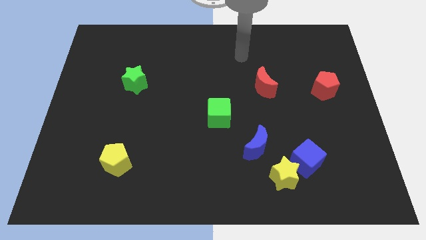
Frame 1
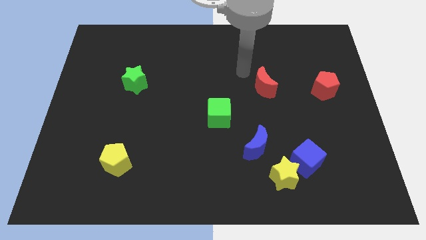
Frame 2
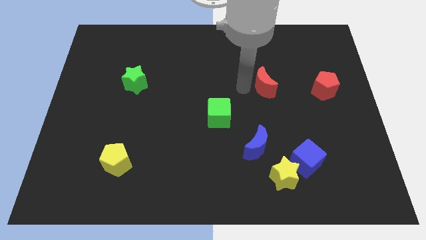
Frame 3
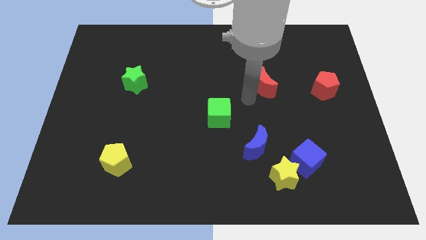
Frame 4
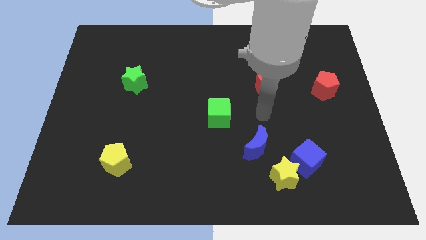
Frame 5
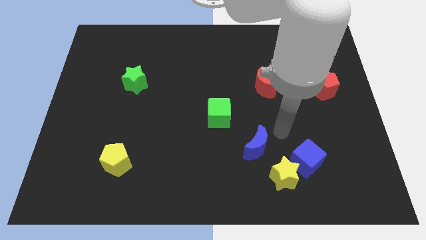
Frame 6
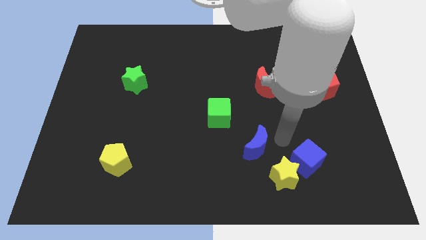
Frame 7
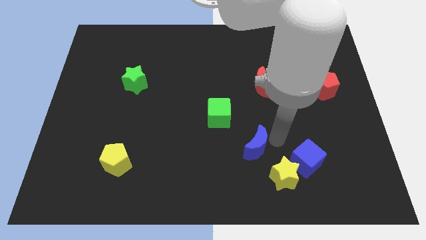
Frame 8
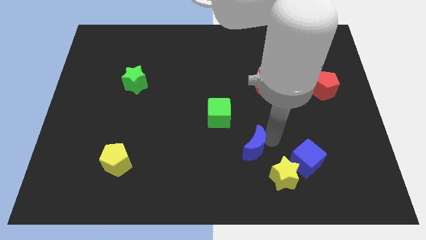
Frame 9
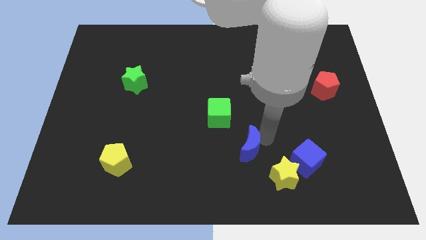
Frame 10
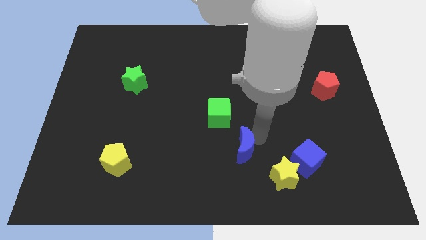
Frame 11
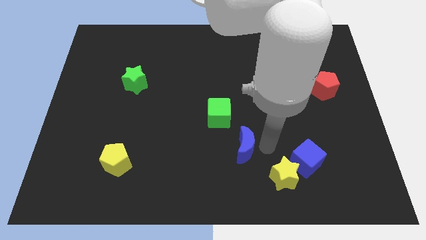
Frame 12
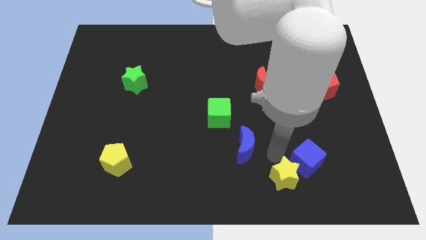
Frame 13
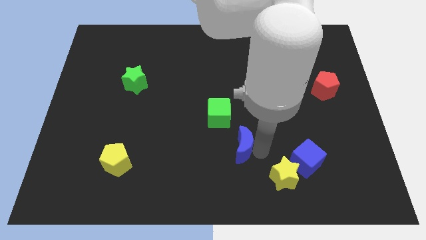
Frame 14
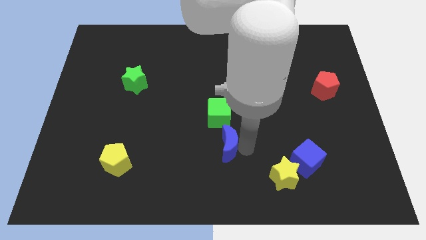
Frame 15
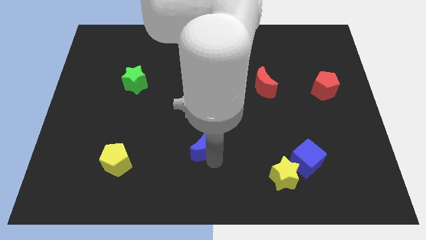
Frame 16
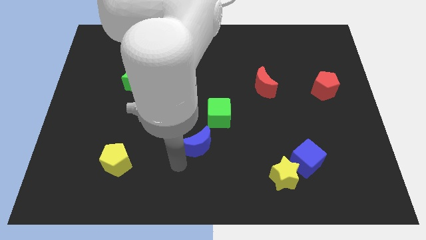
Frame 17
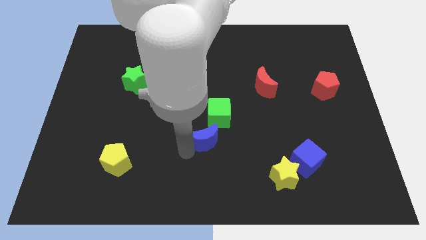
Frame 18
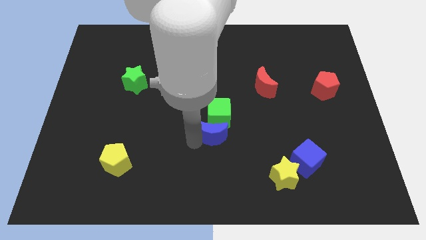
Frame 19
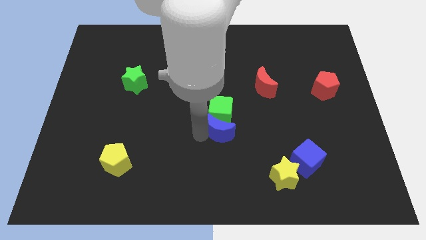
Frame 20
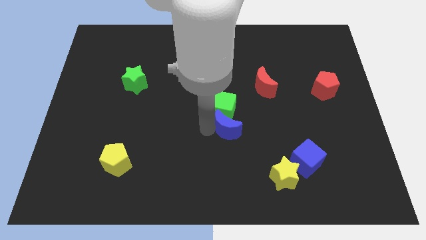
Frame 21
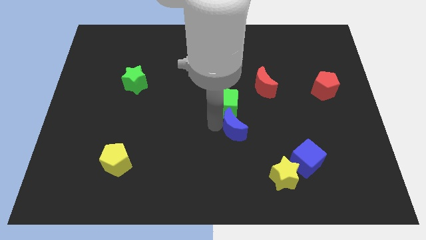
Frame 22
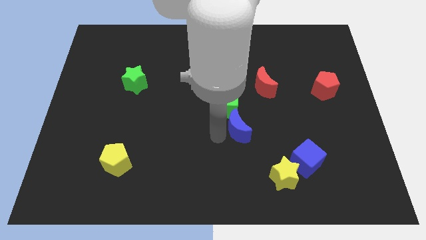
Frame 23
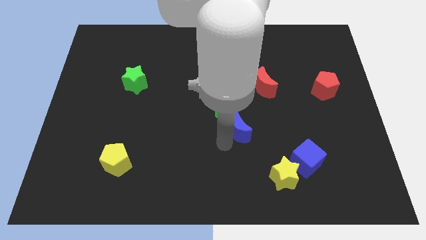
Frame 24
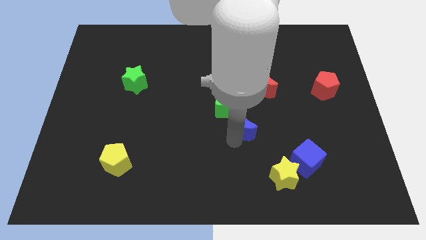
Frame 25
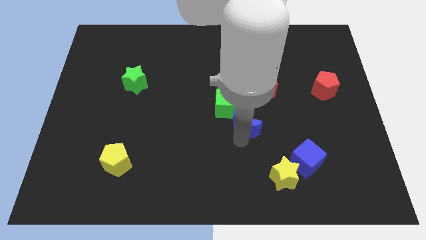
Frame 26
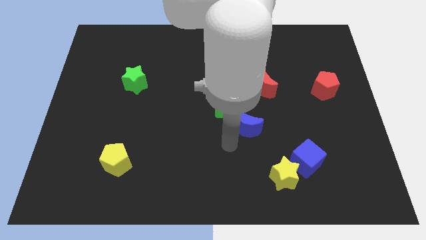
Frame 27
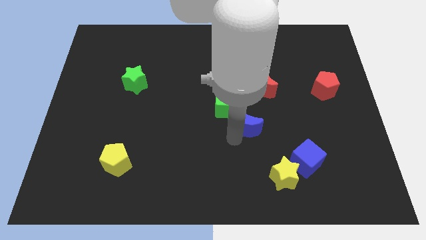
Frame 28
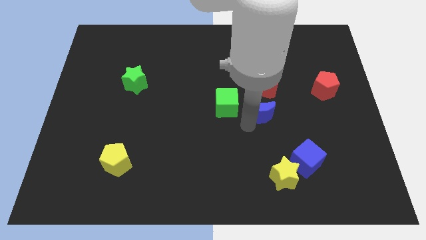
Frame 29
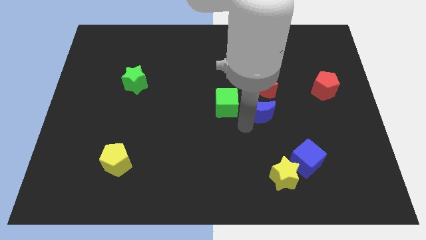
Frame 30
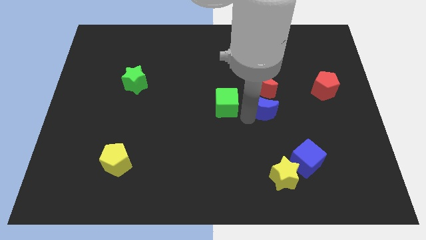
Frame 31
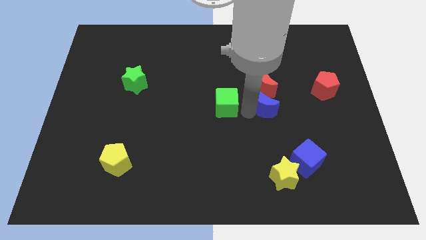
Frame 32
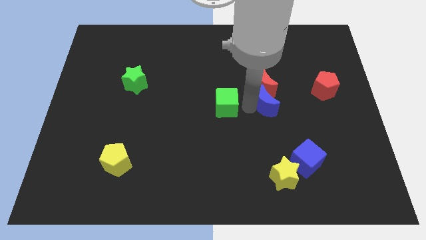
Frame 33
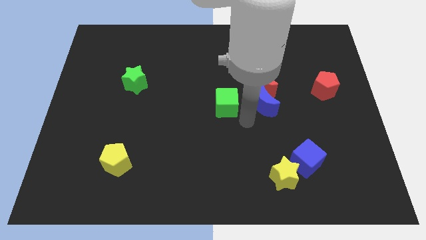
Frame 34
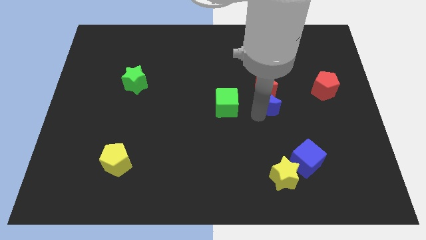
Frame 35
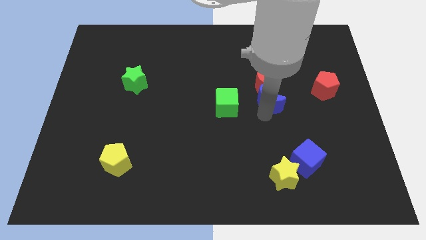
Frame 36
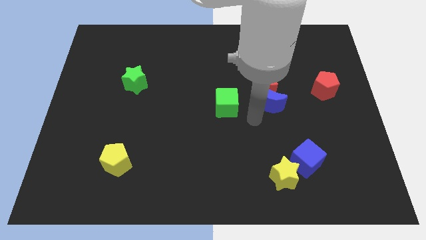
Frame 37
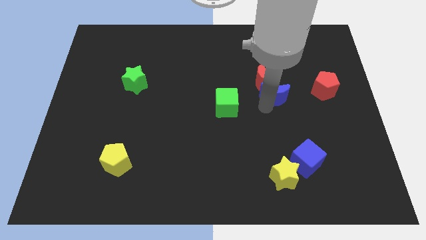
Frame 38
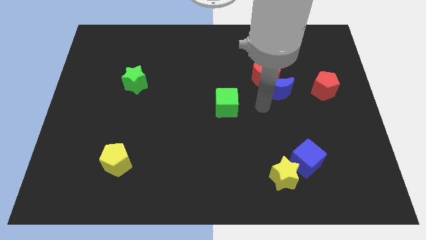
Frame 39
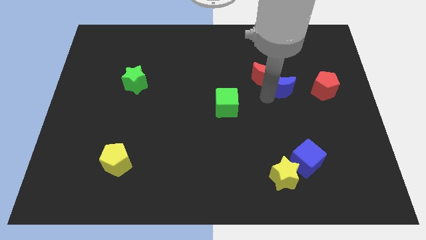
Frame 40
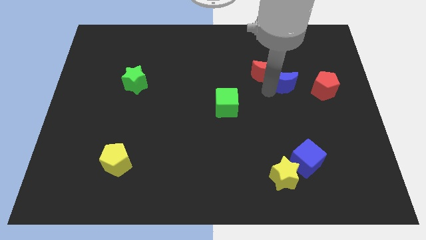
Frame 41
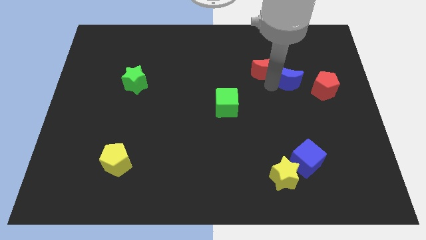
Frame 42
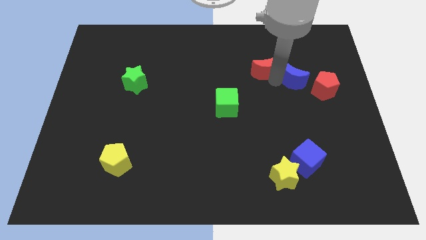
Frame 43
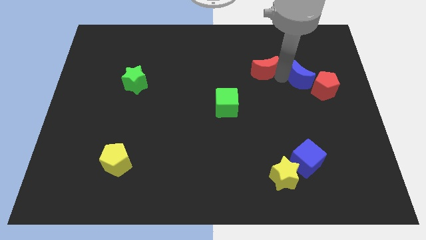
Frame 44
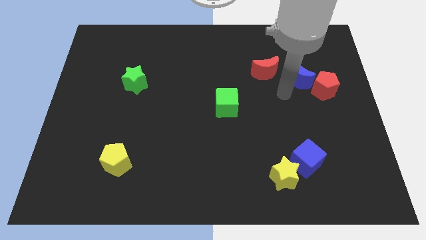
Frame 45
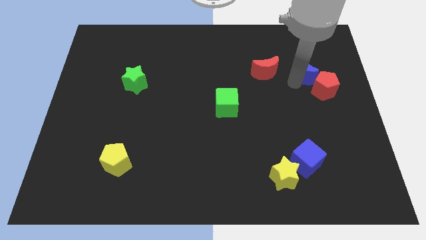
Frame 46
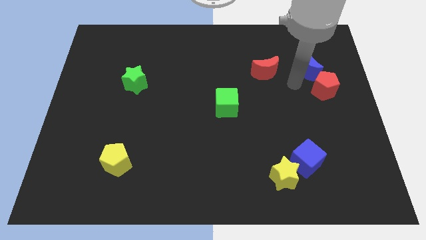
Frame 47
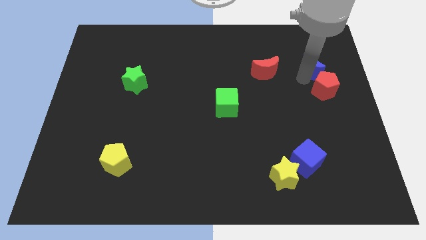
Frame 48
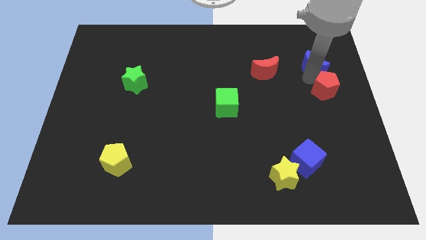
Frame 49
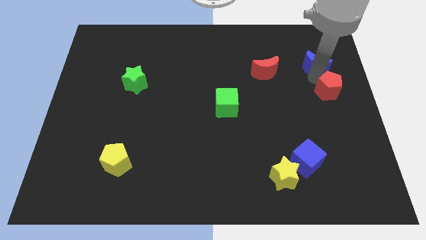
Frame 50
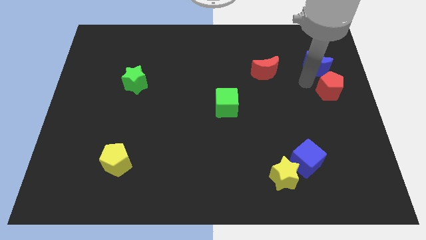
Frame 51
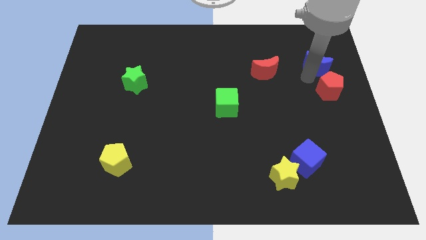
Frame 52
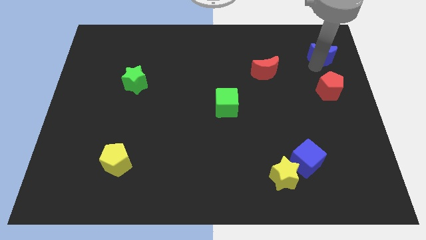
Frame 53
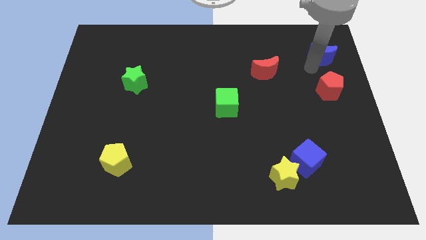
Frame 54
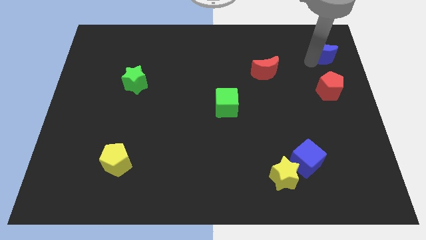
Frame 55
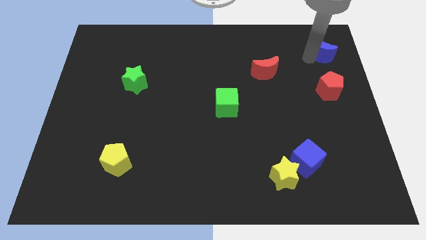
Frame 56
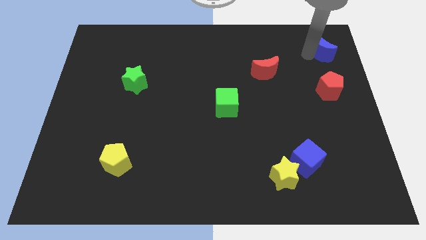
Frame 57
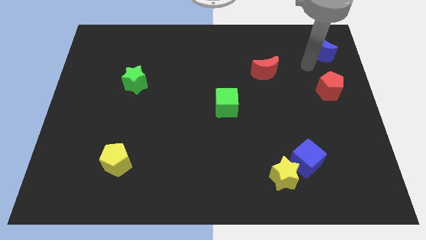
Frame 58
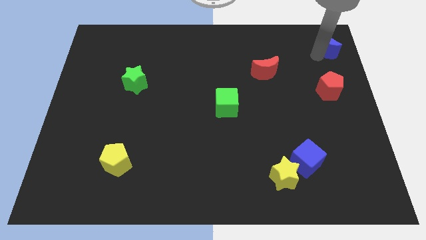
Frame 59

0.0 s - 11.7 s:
put the blue moon to the top right corner
